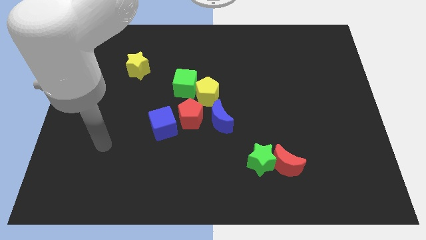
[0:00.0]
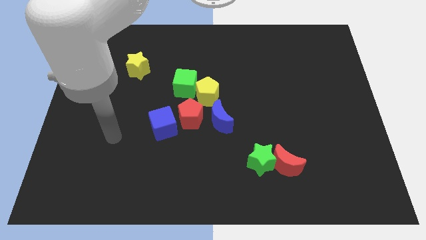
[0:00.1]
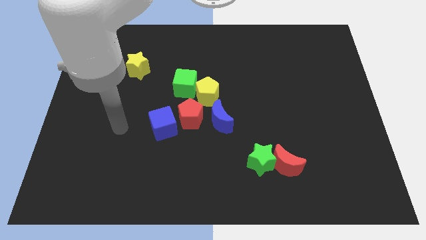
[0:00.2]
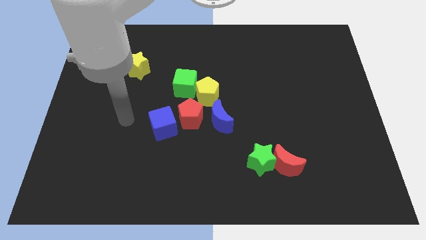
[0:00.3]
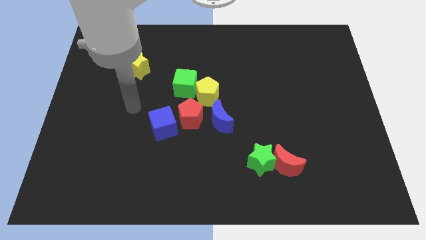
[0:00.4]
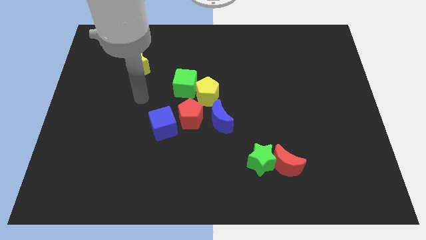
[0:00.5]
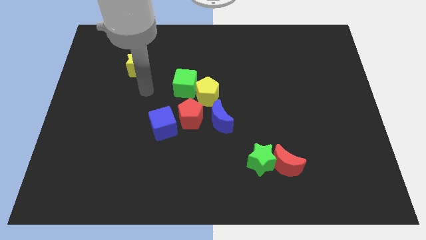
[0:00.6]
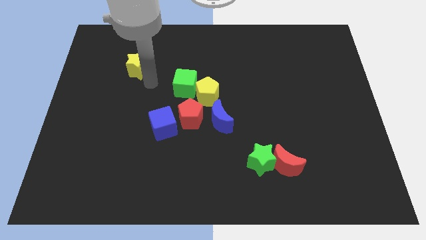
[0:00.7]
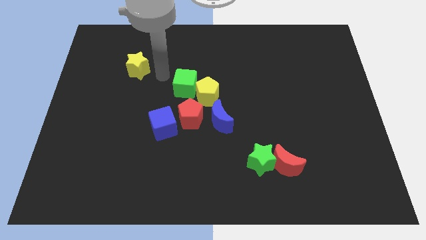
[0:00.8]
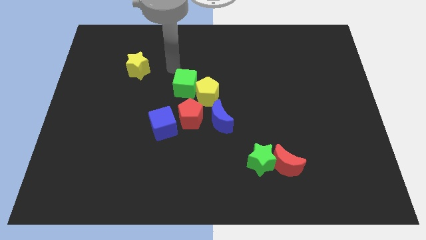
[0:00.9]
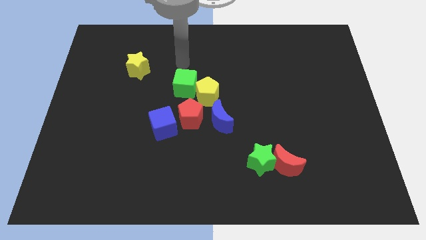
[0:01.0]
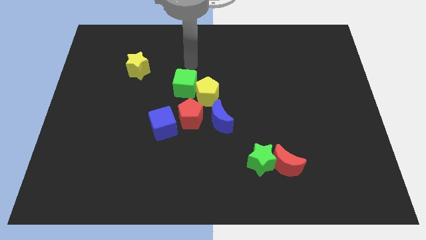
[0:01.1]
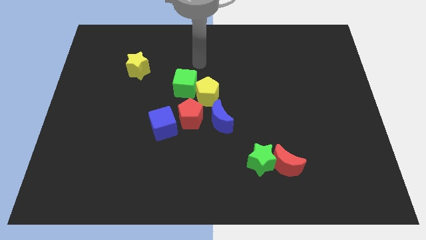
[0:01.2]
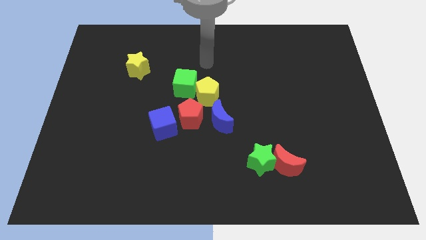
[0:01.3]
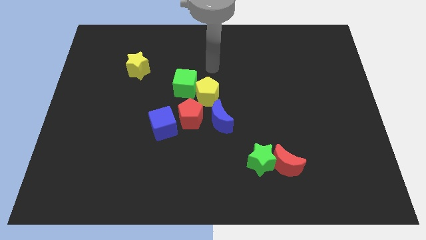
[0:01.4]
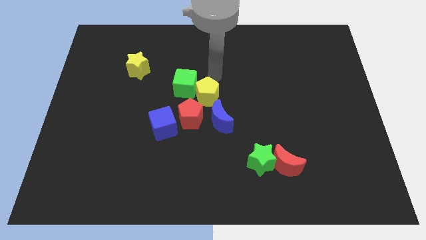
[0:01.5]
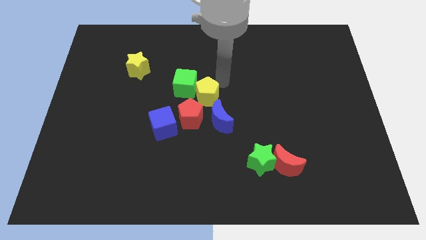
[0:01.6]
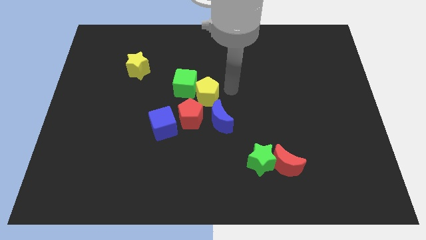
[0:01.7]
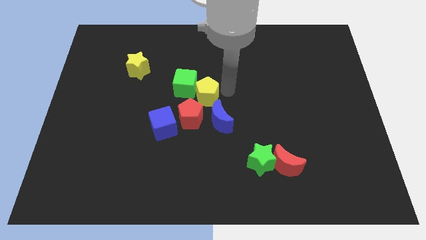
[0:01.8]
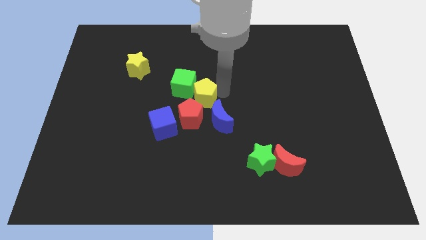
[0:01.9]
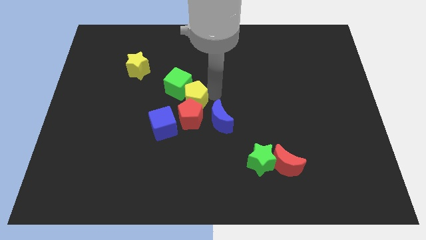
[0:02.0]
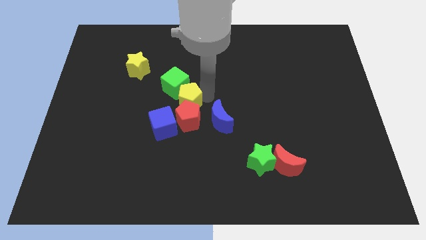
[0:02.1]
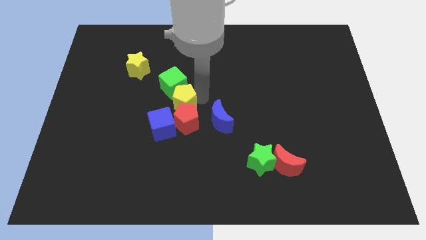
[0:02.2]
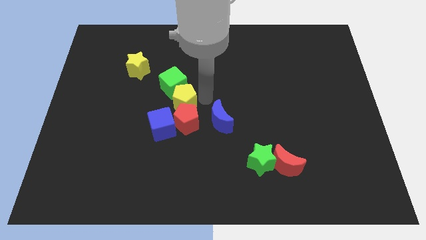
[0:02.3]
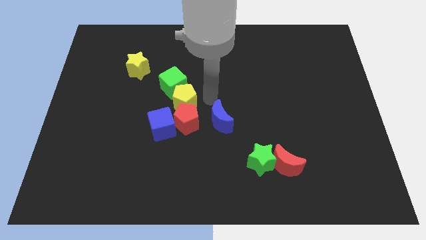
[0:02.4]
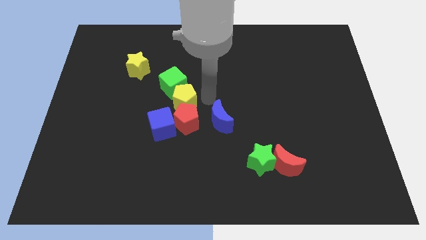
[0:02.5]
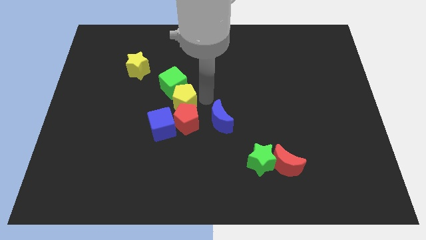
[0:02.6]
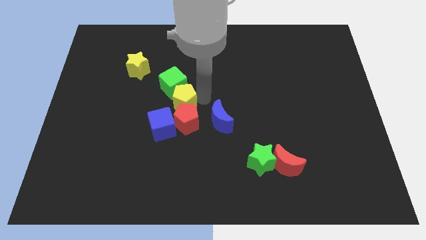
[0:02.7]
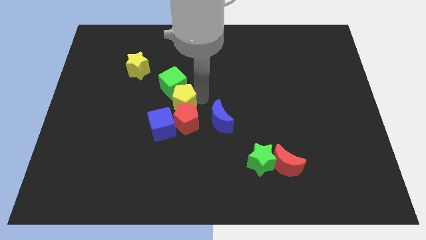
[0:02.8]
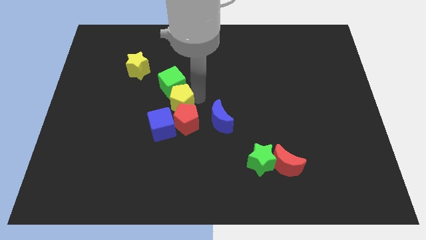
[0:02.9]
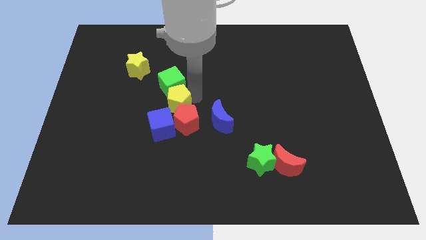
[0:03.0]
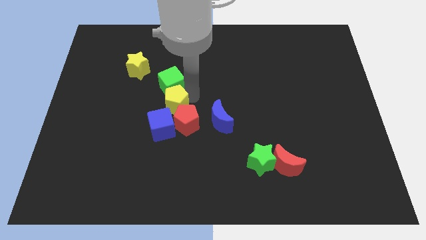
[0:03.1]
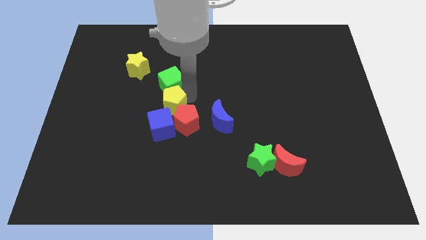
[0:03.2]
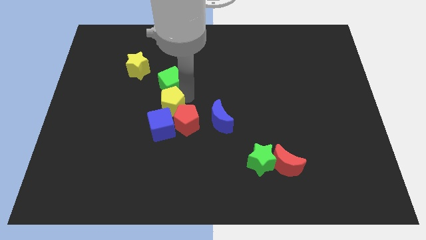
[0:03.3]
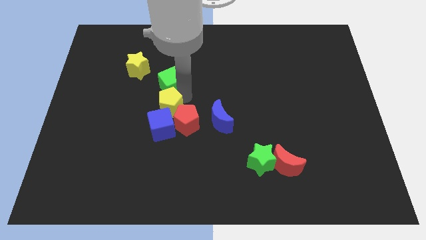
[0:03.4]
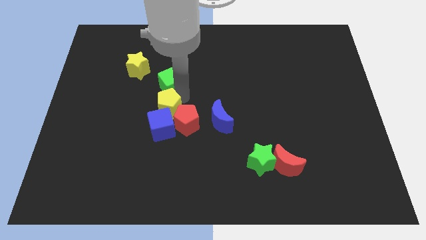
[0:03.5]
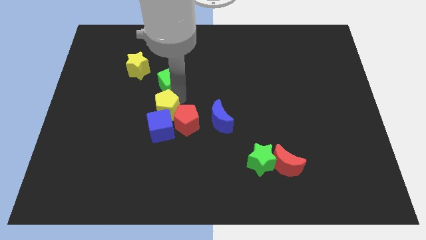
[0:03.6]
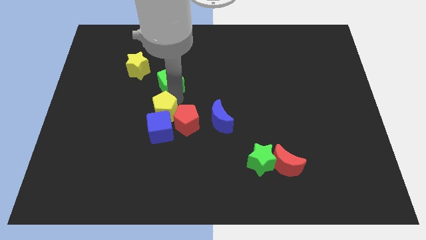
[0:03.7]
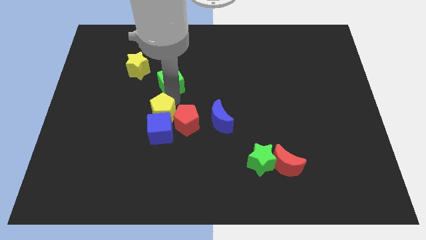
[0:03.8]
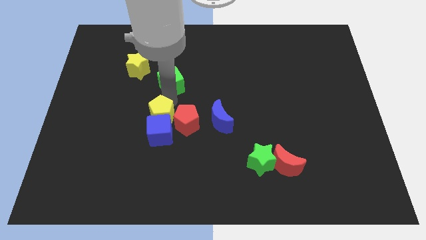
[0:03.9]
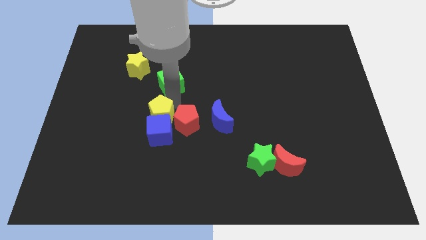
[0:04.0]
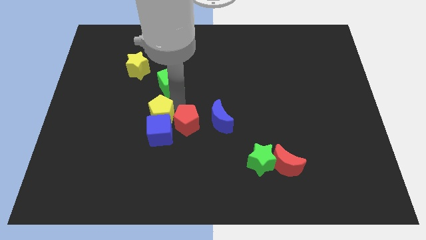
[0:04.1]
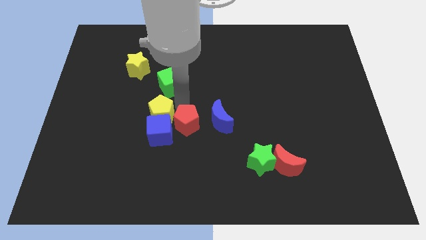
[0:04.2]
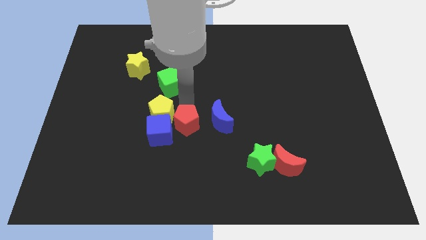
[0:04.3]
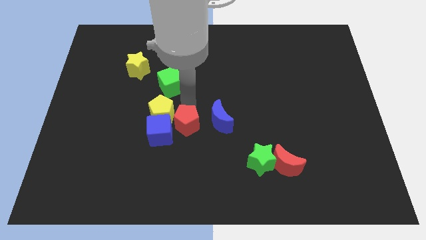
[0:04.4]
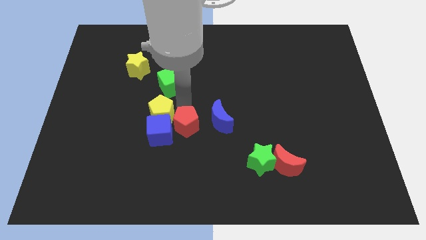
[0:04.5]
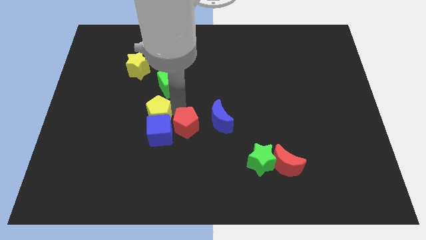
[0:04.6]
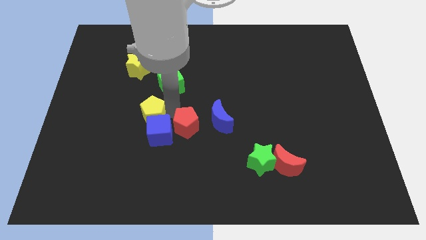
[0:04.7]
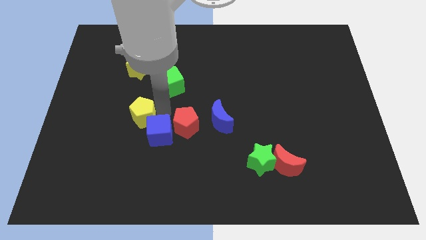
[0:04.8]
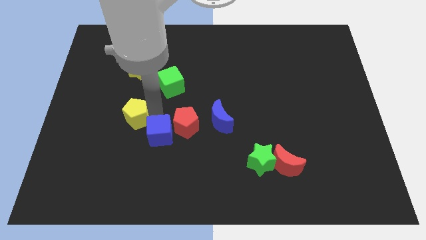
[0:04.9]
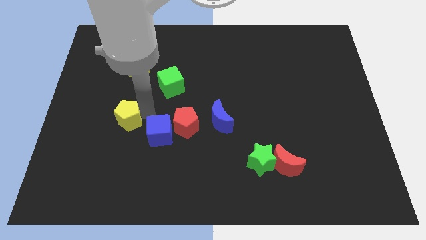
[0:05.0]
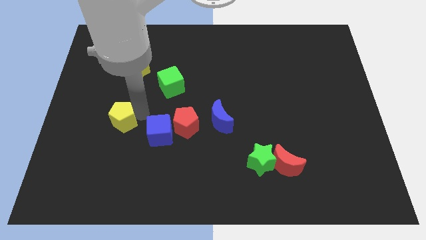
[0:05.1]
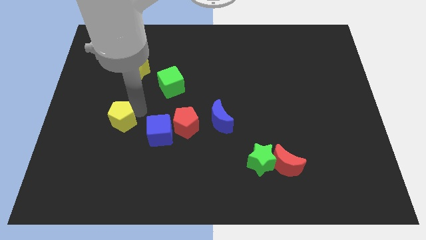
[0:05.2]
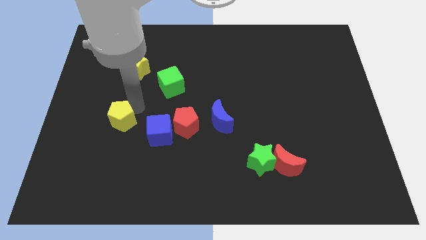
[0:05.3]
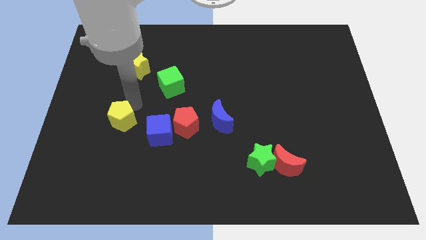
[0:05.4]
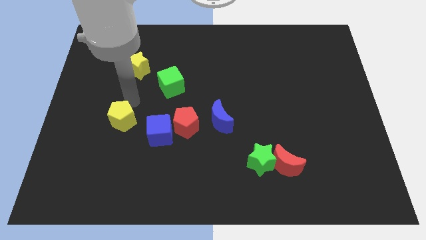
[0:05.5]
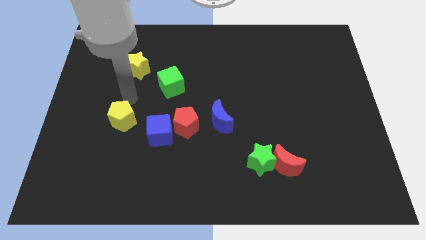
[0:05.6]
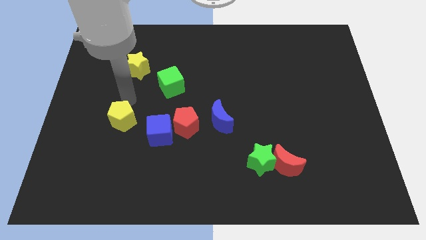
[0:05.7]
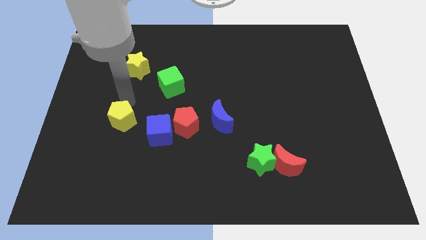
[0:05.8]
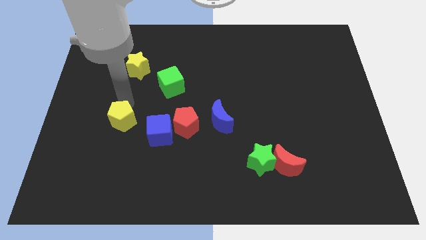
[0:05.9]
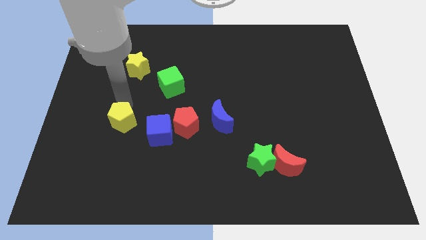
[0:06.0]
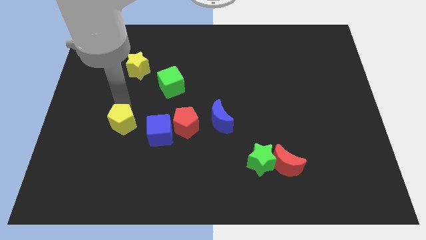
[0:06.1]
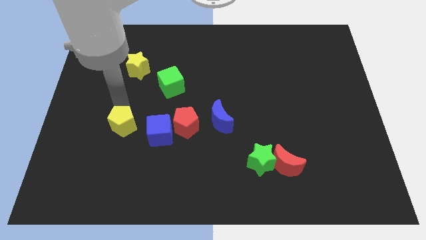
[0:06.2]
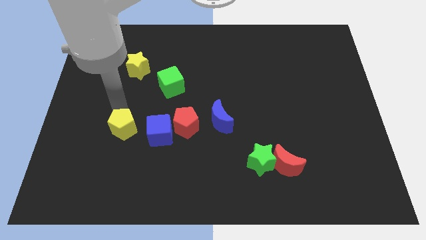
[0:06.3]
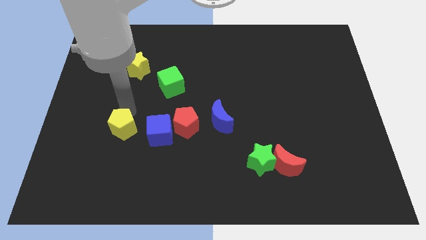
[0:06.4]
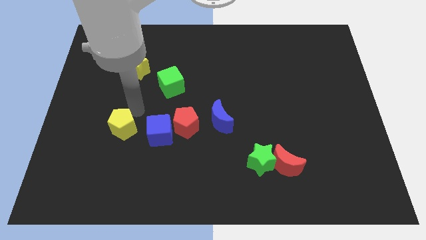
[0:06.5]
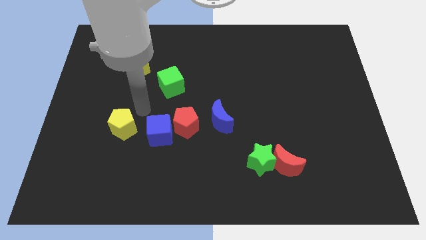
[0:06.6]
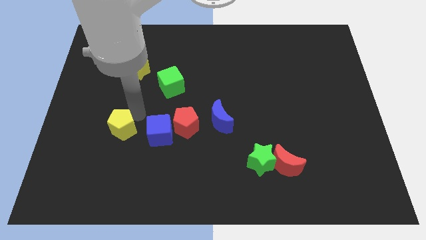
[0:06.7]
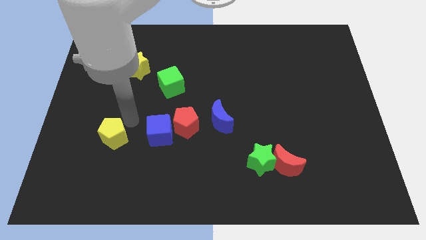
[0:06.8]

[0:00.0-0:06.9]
slide the yellow pentagon diagonally down and to the left

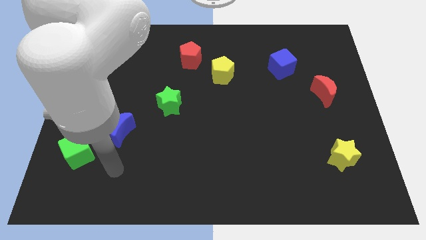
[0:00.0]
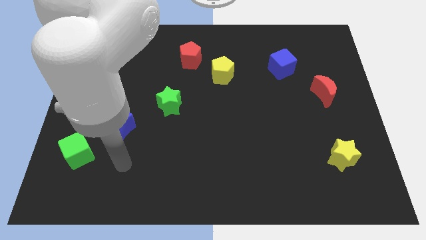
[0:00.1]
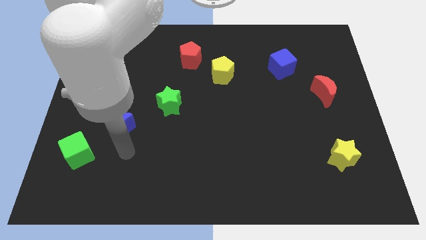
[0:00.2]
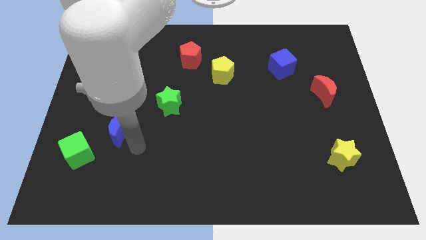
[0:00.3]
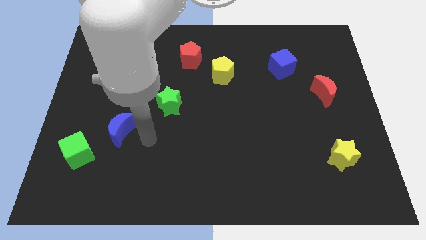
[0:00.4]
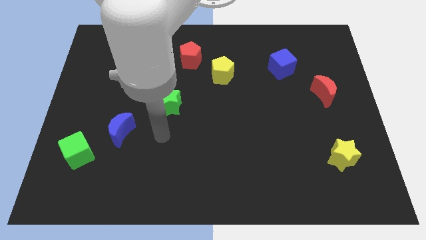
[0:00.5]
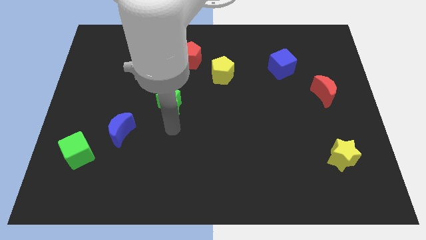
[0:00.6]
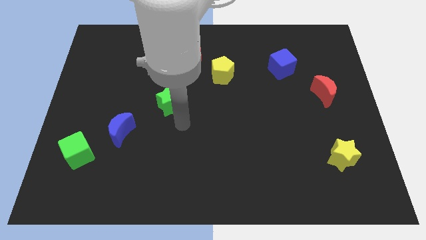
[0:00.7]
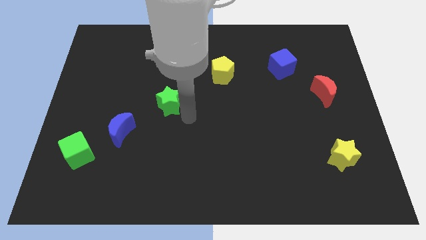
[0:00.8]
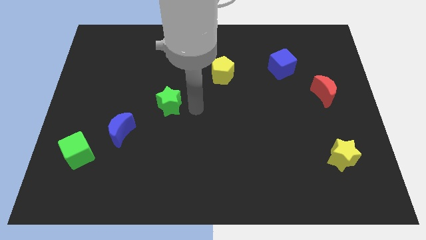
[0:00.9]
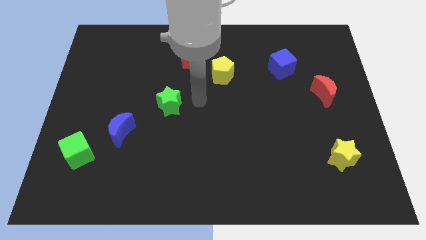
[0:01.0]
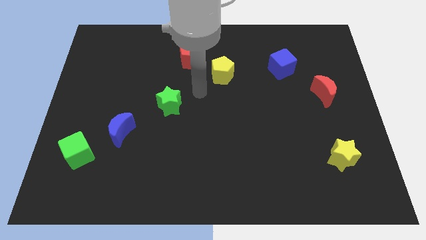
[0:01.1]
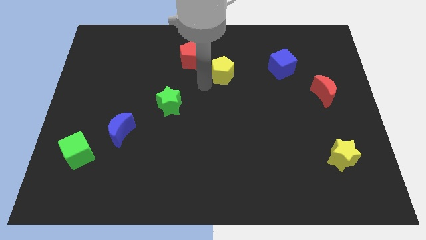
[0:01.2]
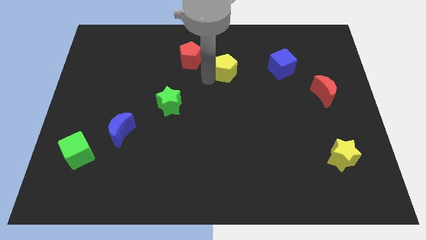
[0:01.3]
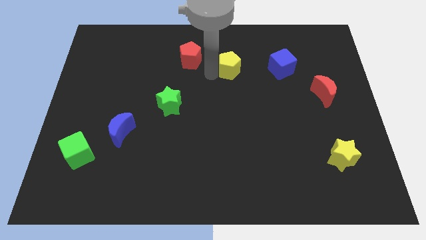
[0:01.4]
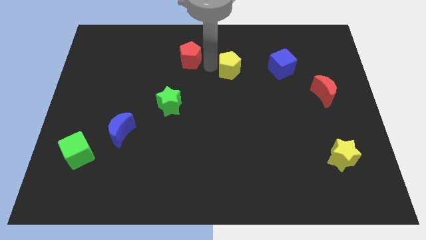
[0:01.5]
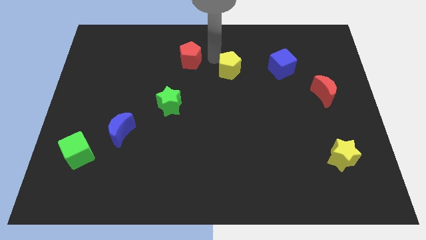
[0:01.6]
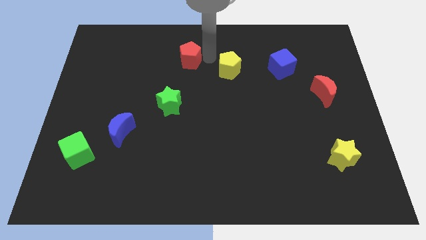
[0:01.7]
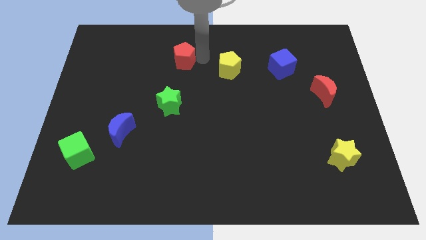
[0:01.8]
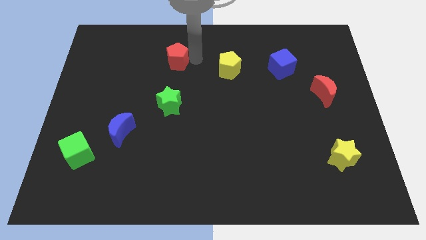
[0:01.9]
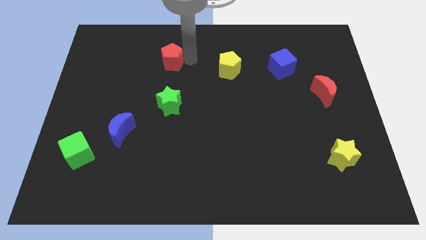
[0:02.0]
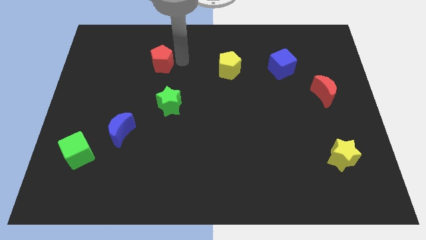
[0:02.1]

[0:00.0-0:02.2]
slightly push the red pentagon left
